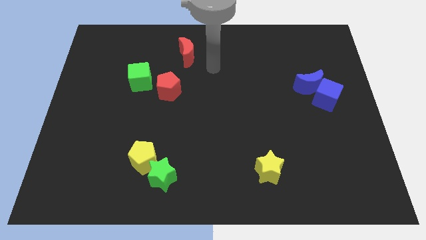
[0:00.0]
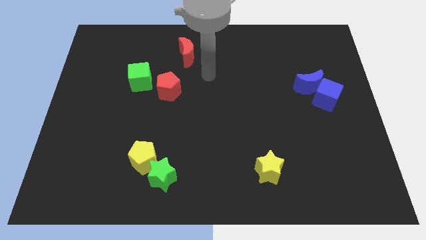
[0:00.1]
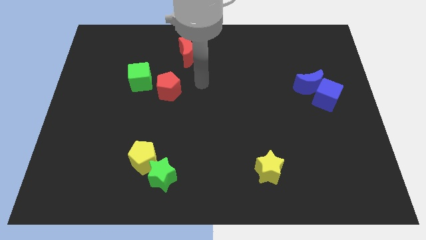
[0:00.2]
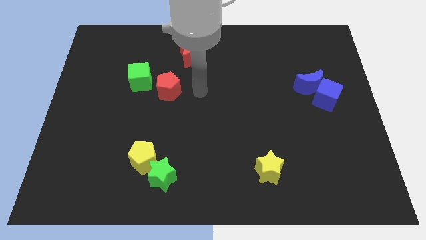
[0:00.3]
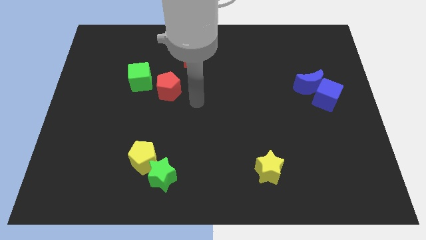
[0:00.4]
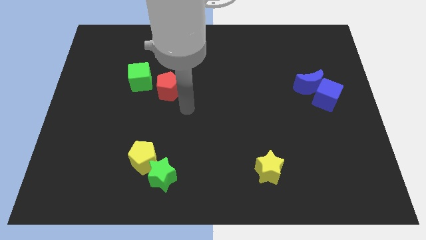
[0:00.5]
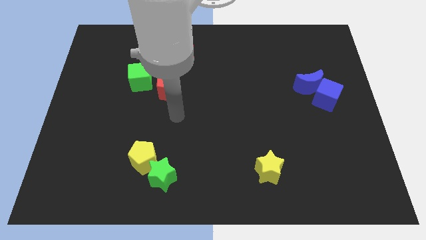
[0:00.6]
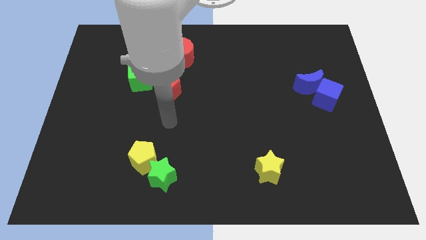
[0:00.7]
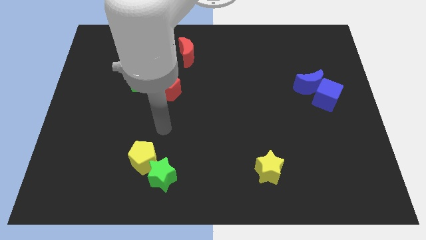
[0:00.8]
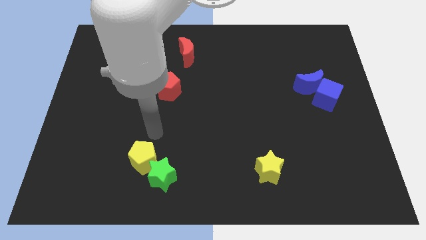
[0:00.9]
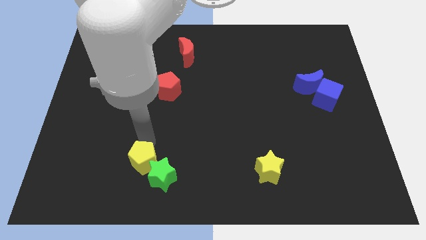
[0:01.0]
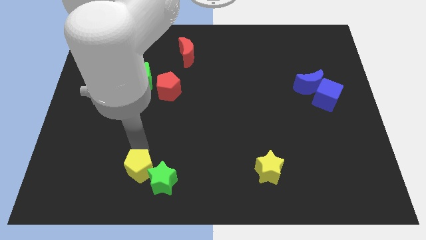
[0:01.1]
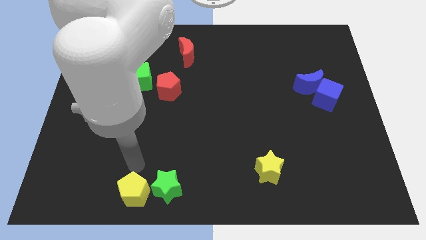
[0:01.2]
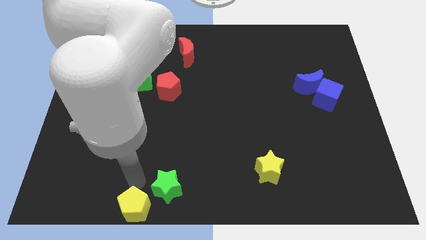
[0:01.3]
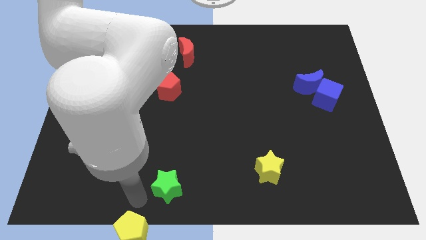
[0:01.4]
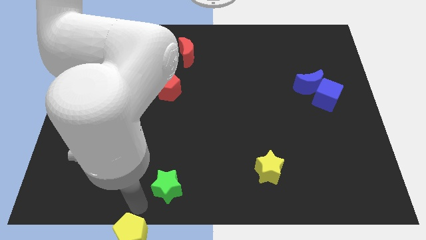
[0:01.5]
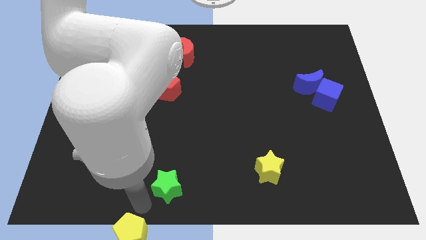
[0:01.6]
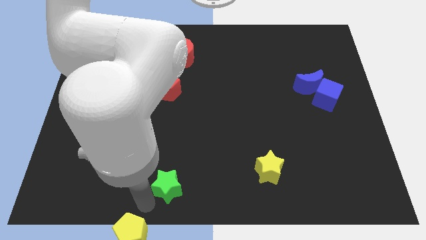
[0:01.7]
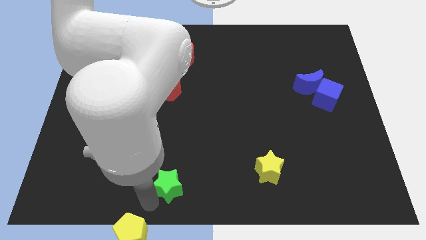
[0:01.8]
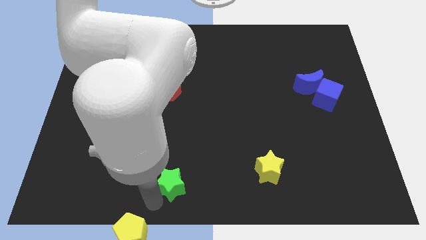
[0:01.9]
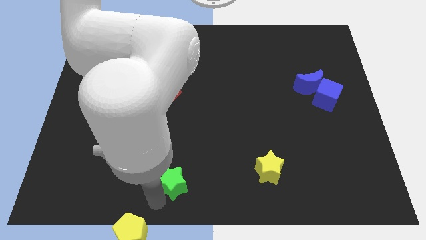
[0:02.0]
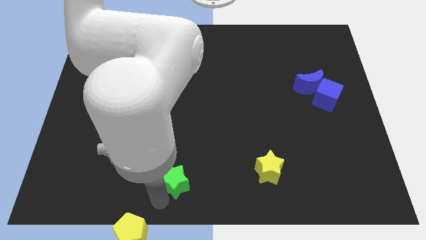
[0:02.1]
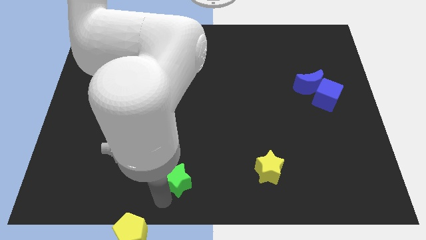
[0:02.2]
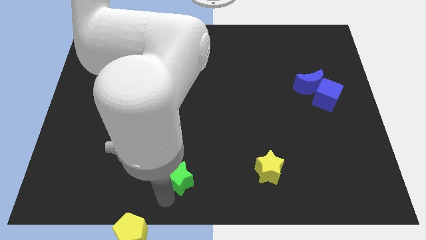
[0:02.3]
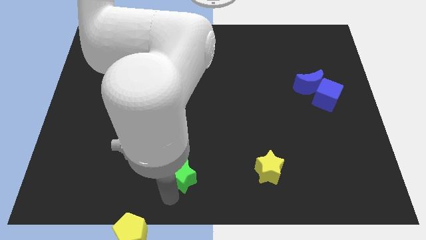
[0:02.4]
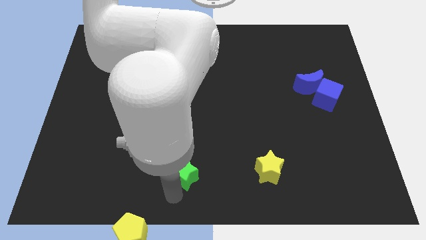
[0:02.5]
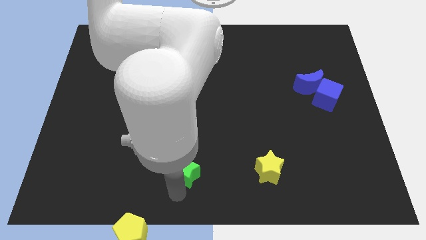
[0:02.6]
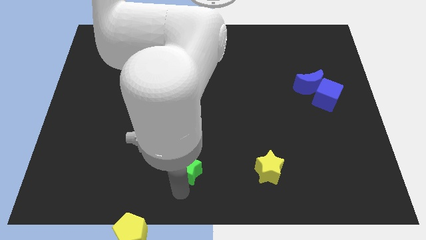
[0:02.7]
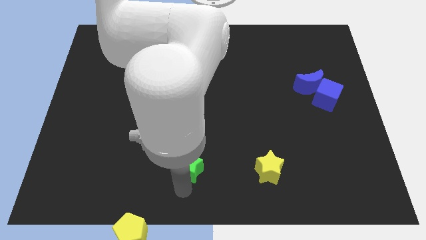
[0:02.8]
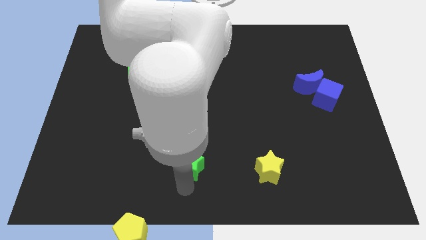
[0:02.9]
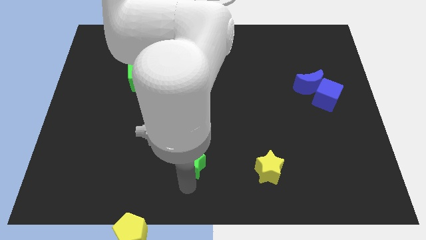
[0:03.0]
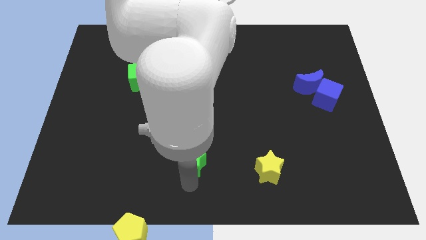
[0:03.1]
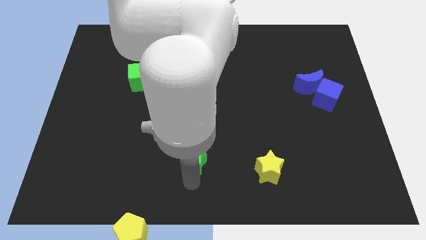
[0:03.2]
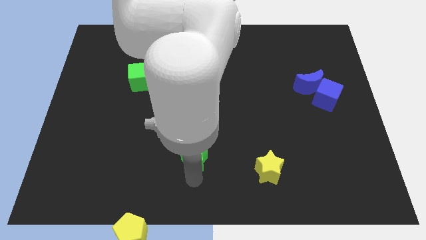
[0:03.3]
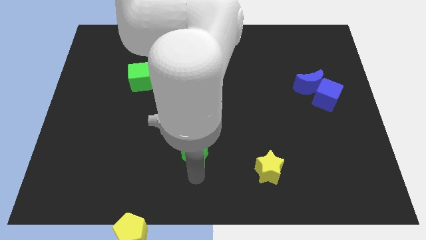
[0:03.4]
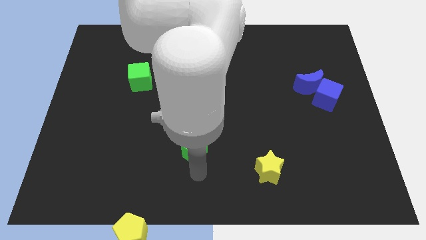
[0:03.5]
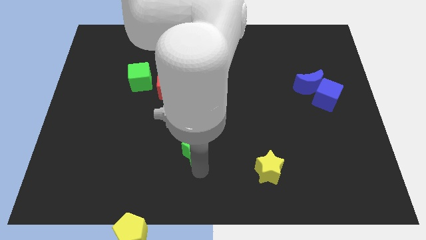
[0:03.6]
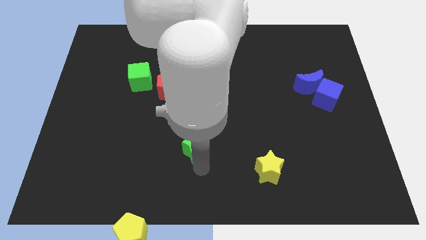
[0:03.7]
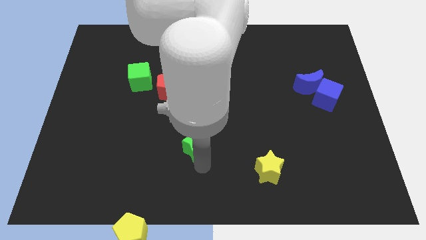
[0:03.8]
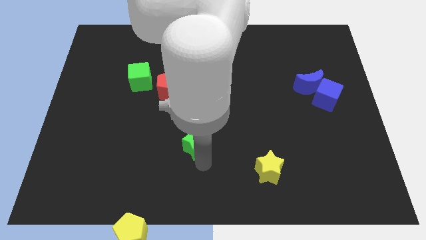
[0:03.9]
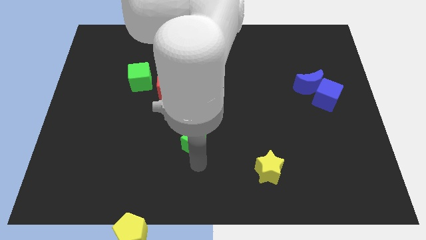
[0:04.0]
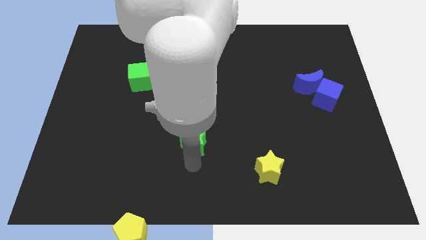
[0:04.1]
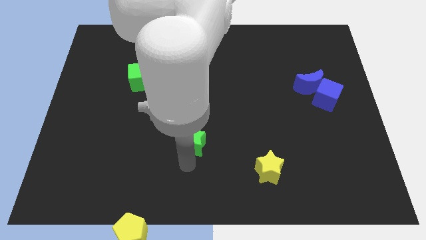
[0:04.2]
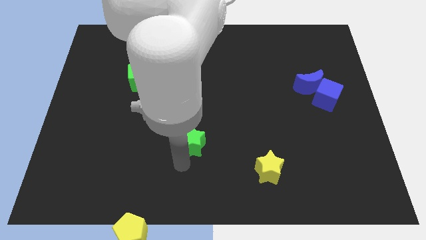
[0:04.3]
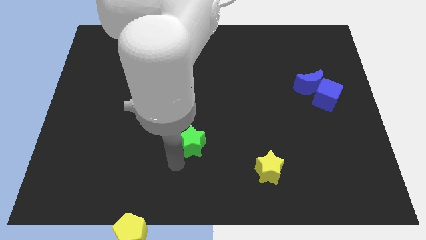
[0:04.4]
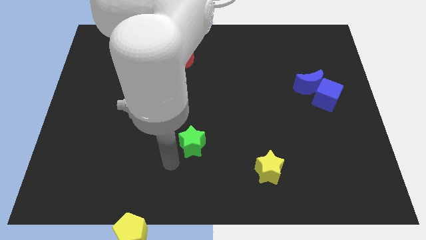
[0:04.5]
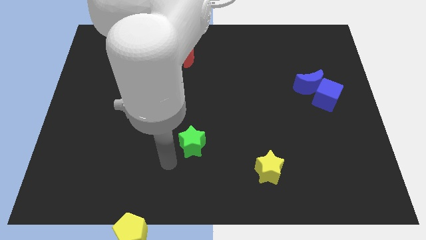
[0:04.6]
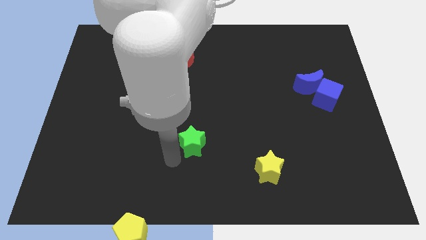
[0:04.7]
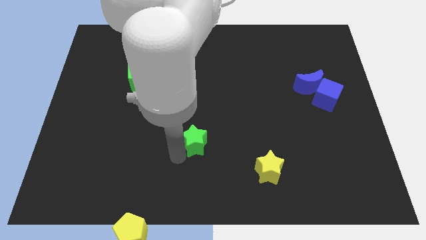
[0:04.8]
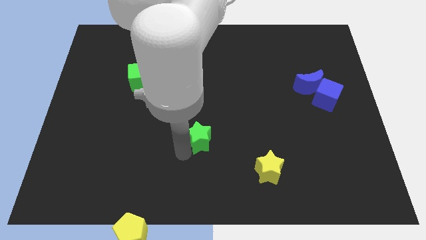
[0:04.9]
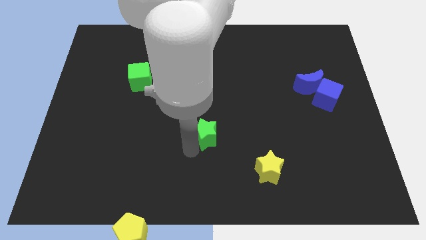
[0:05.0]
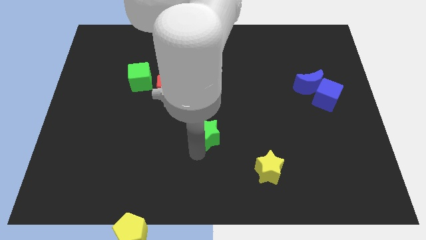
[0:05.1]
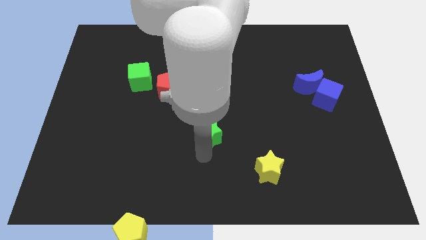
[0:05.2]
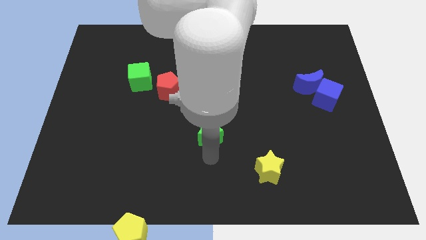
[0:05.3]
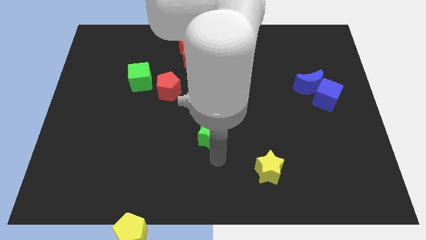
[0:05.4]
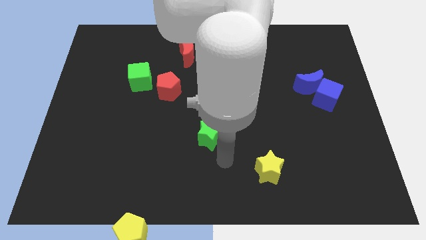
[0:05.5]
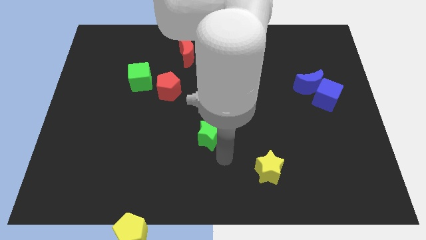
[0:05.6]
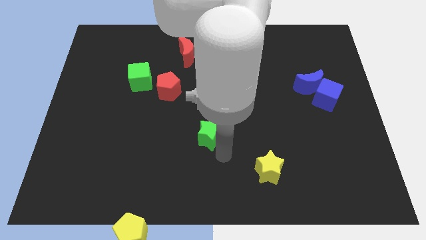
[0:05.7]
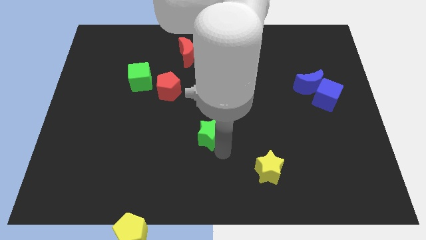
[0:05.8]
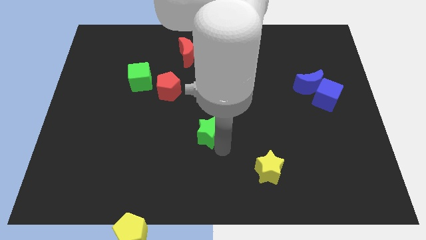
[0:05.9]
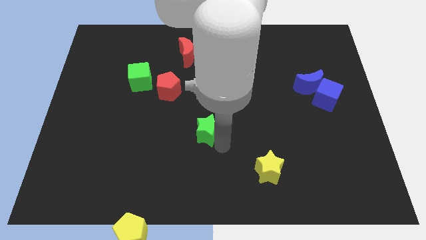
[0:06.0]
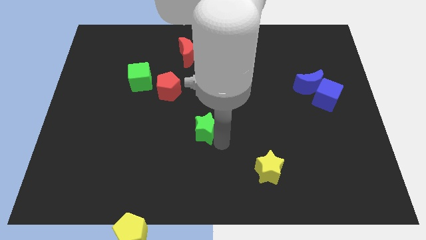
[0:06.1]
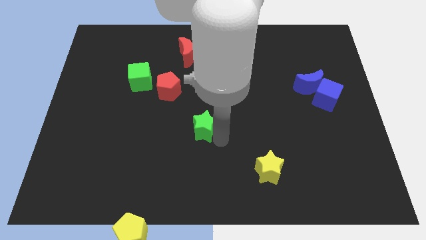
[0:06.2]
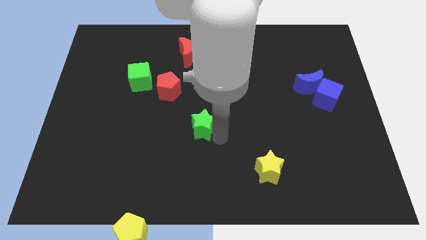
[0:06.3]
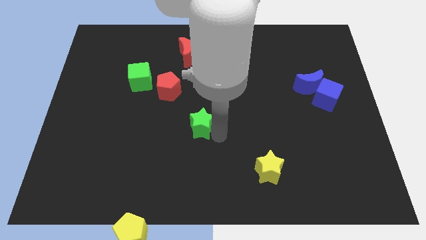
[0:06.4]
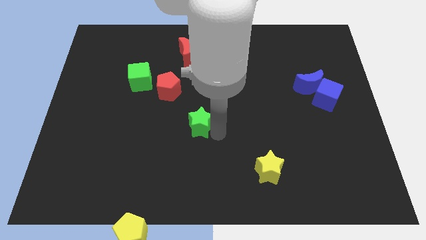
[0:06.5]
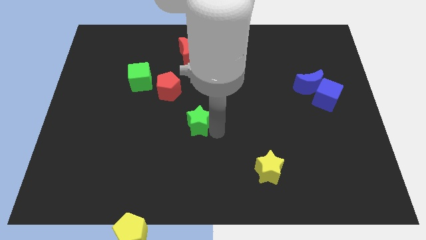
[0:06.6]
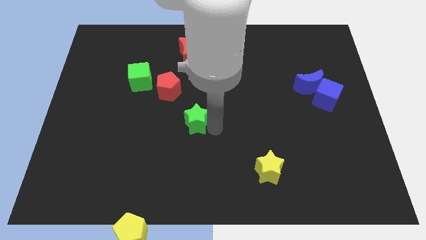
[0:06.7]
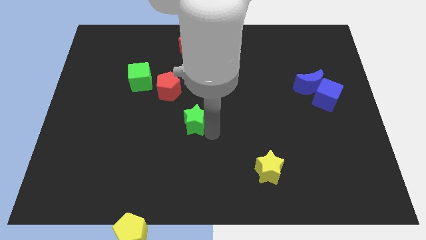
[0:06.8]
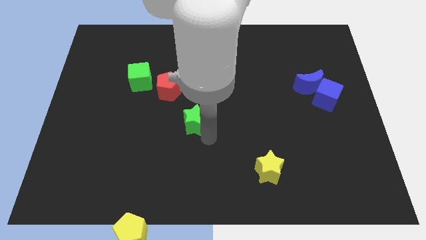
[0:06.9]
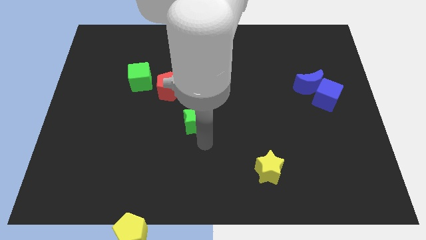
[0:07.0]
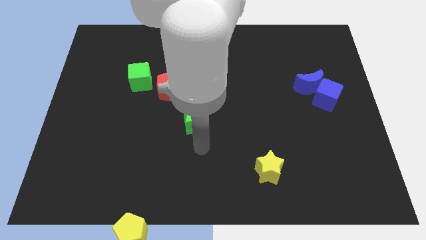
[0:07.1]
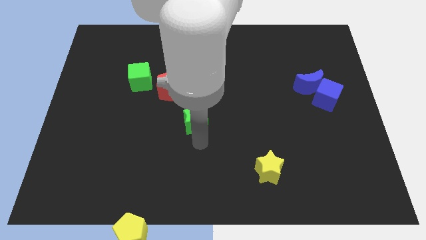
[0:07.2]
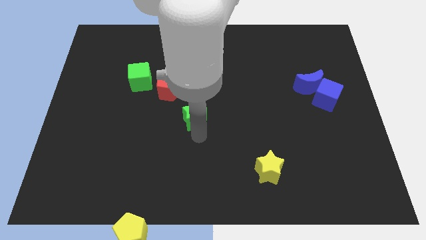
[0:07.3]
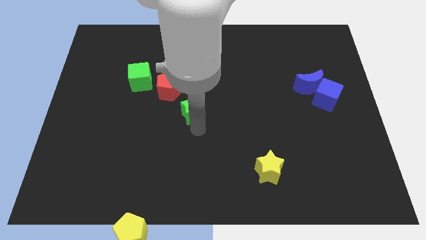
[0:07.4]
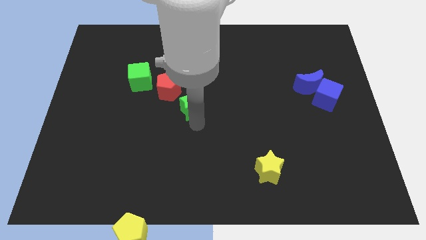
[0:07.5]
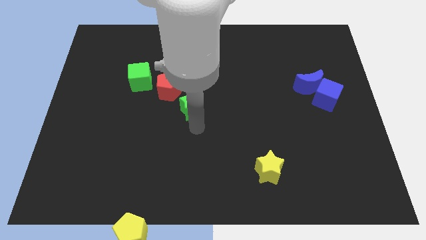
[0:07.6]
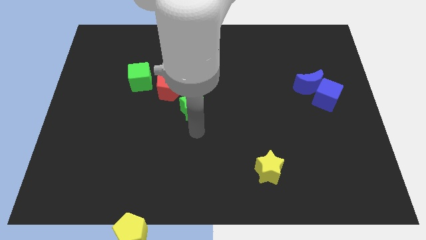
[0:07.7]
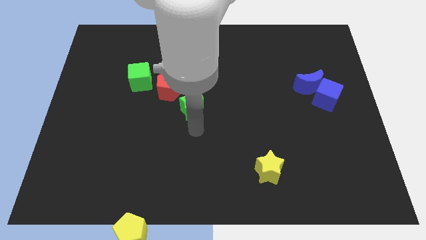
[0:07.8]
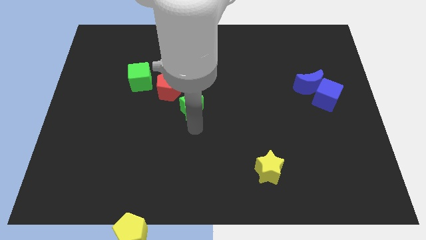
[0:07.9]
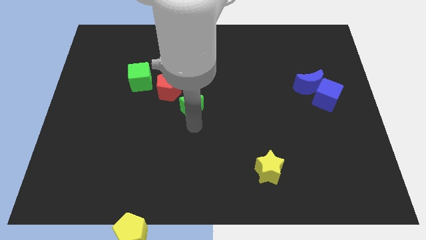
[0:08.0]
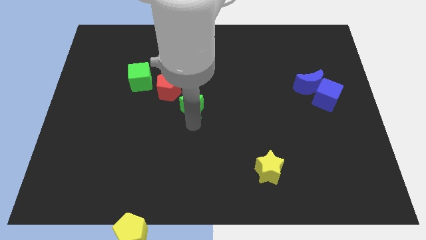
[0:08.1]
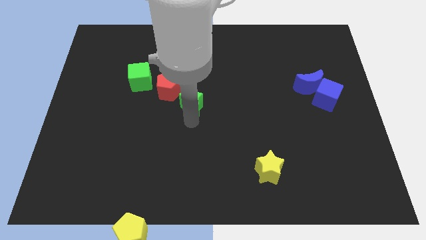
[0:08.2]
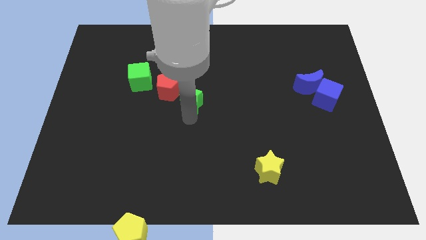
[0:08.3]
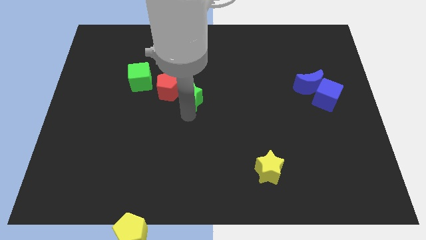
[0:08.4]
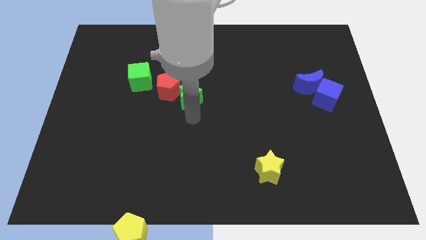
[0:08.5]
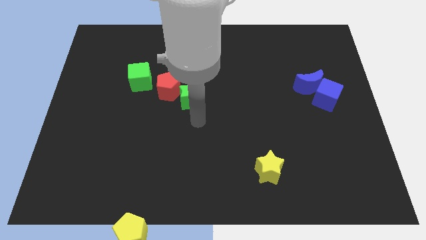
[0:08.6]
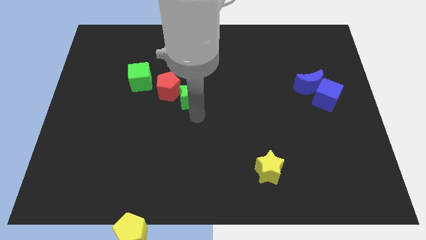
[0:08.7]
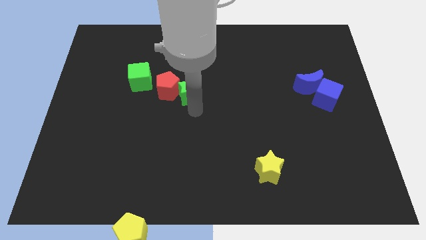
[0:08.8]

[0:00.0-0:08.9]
slide the green star up
